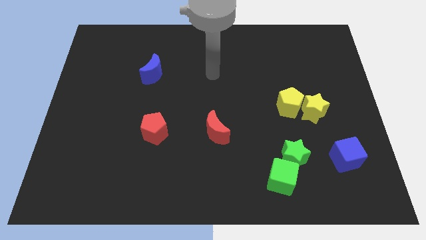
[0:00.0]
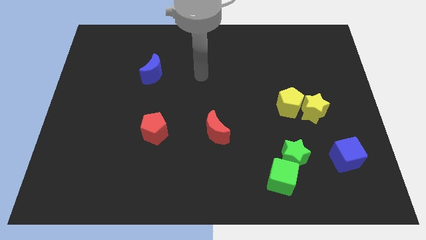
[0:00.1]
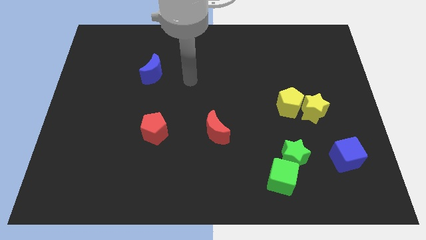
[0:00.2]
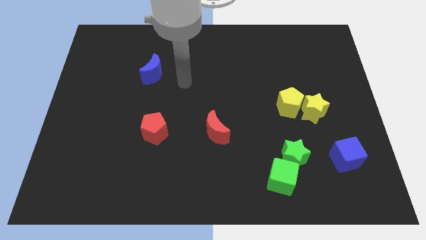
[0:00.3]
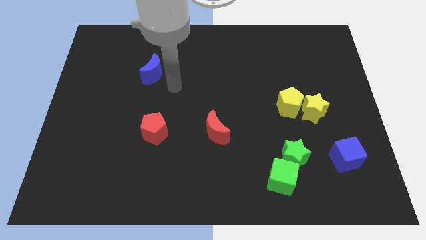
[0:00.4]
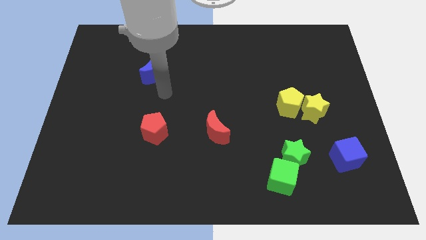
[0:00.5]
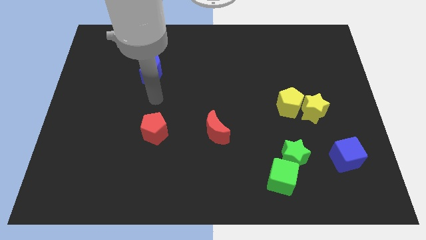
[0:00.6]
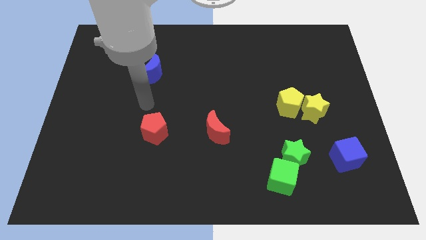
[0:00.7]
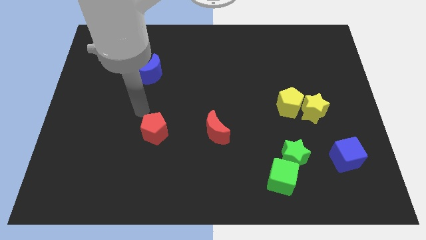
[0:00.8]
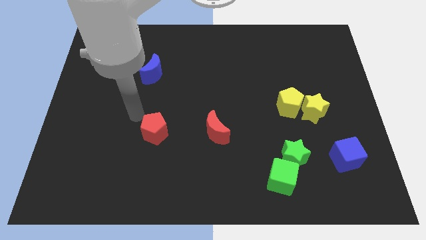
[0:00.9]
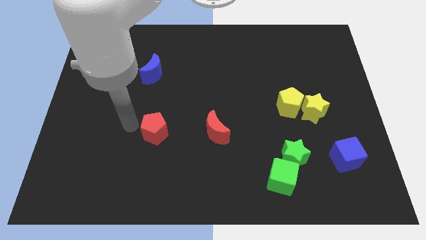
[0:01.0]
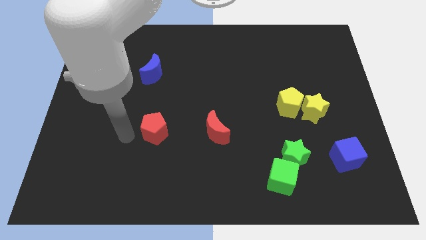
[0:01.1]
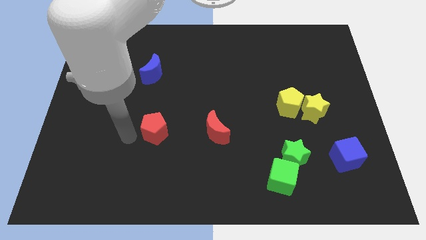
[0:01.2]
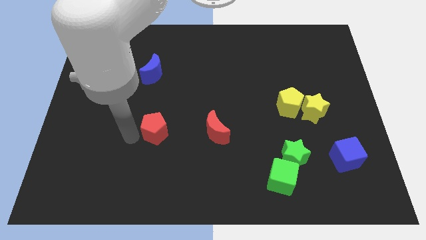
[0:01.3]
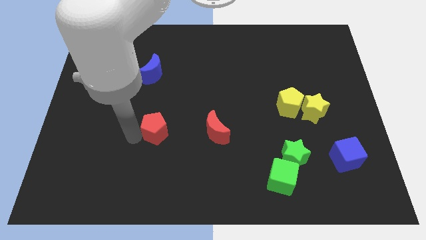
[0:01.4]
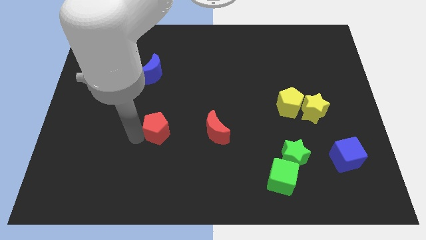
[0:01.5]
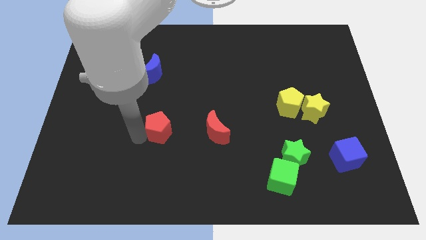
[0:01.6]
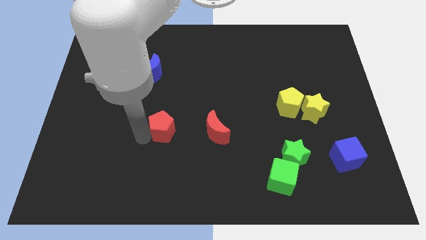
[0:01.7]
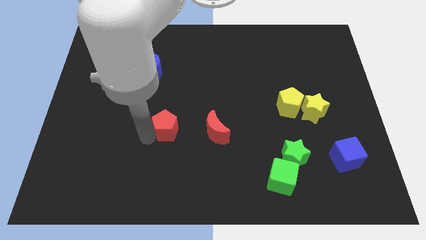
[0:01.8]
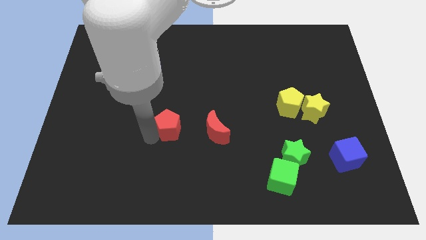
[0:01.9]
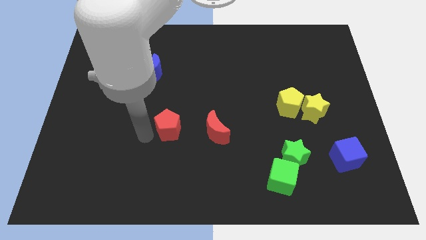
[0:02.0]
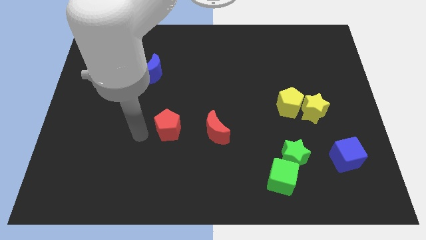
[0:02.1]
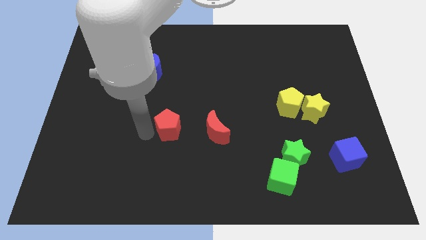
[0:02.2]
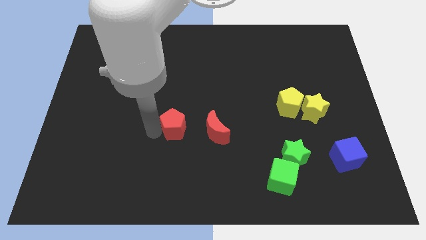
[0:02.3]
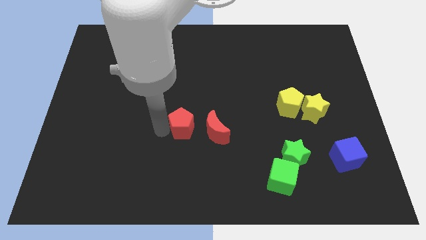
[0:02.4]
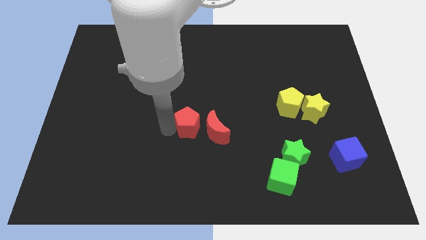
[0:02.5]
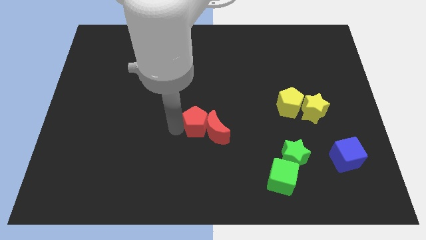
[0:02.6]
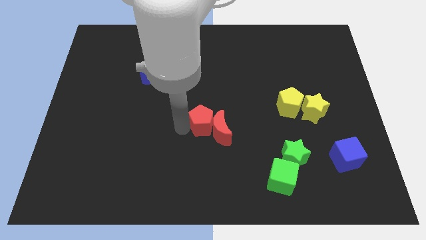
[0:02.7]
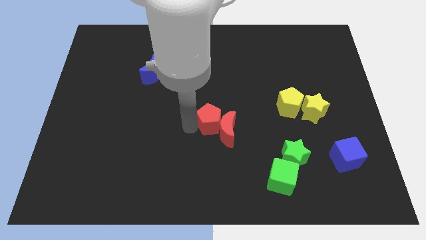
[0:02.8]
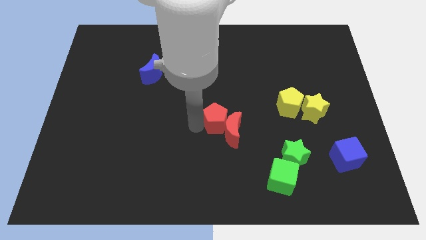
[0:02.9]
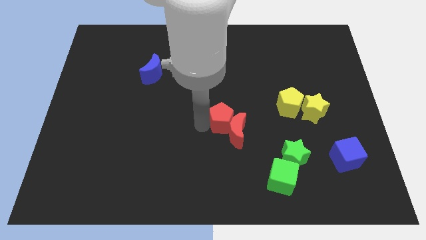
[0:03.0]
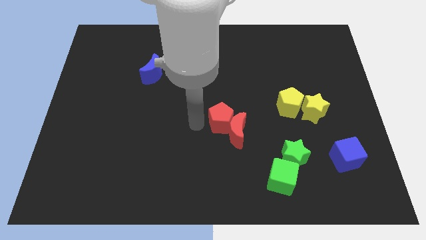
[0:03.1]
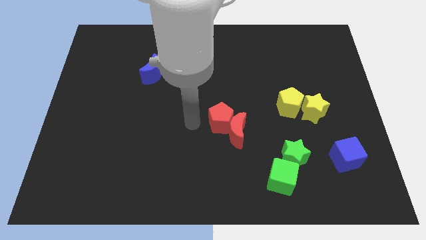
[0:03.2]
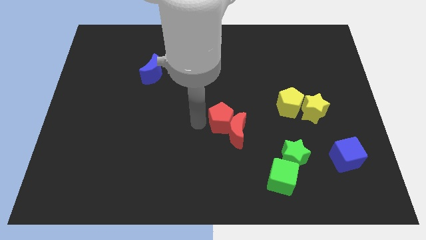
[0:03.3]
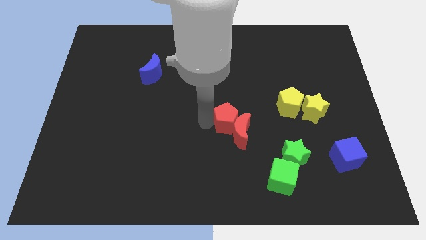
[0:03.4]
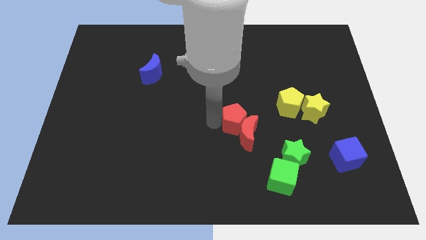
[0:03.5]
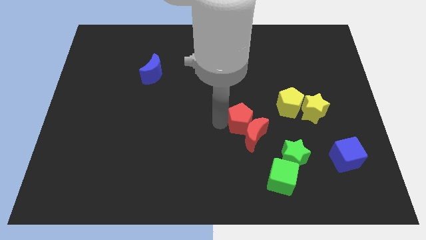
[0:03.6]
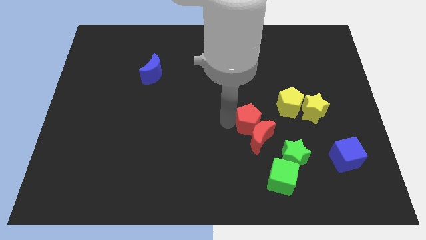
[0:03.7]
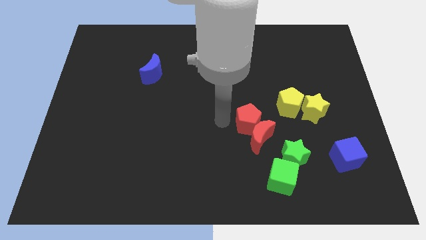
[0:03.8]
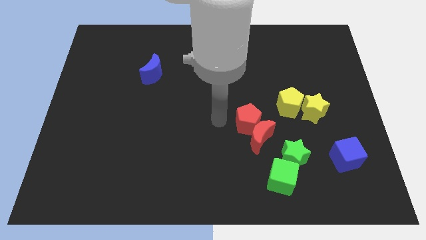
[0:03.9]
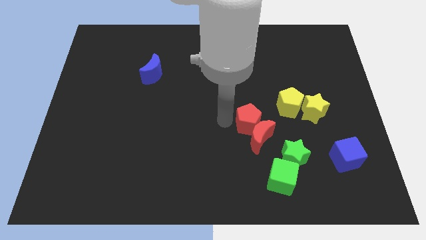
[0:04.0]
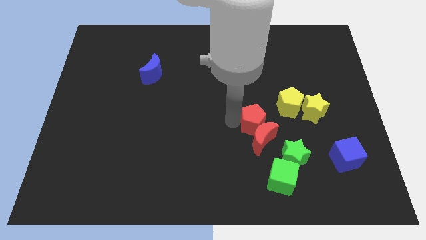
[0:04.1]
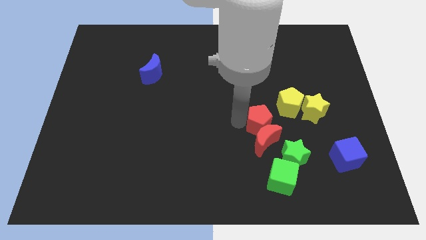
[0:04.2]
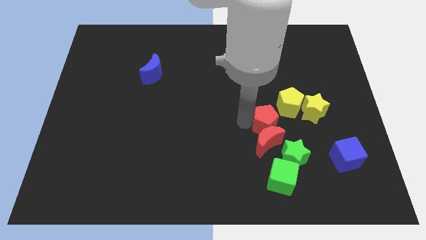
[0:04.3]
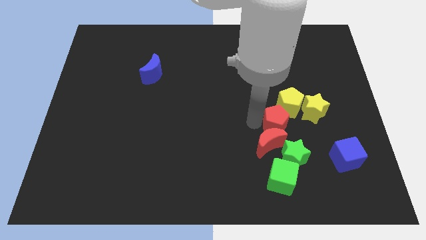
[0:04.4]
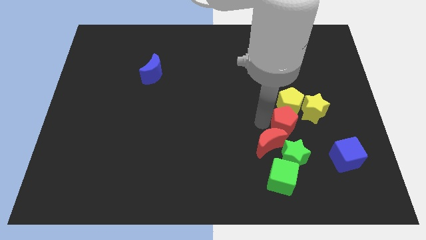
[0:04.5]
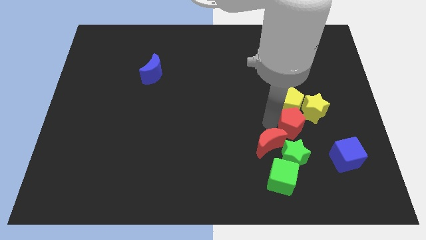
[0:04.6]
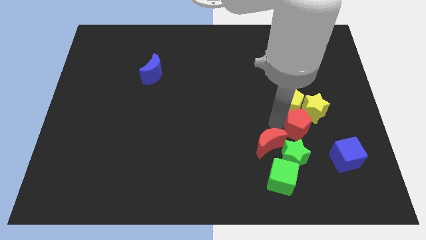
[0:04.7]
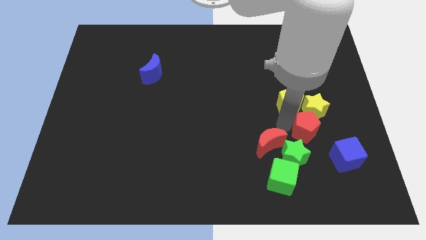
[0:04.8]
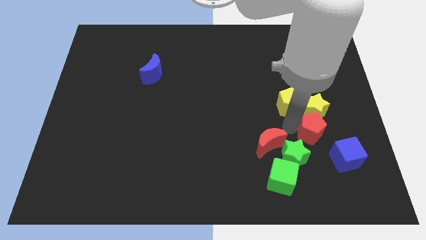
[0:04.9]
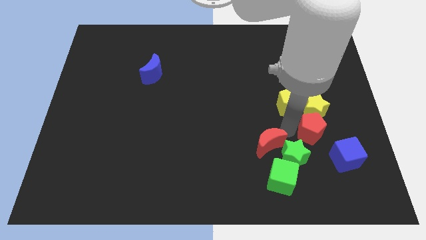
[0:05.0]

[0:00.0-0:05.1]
move the red pentagon to the bottom right side of the yellow star

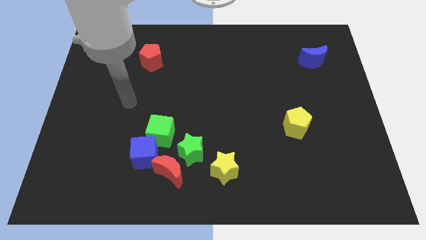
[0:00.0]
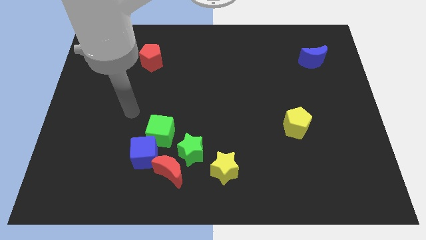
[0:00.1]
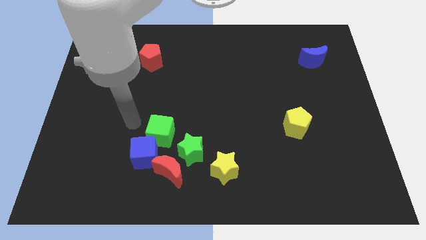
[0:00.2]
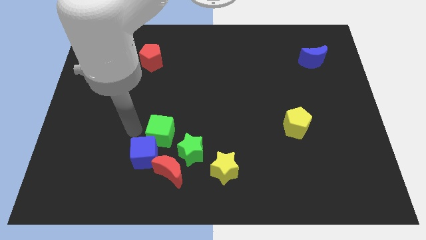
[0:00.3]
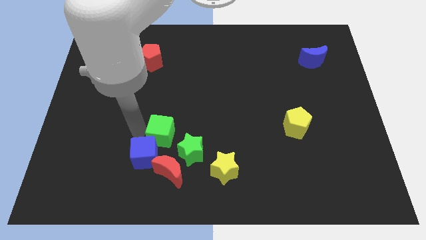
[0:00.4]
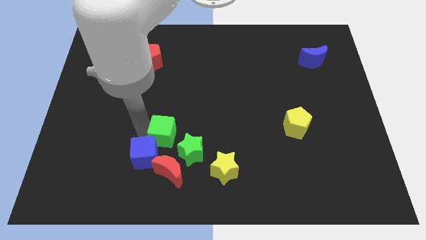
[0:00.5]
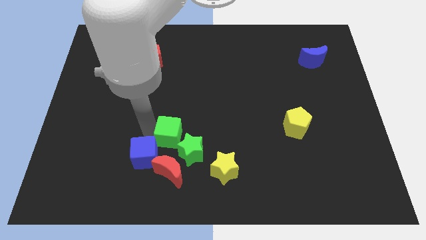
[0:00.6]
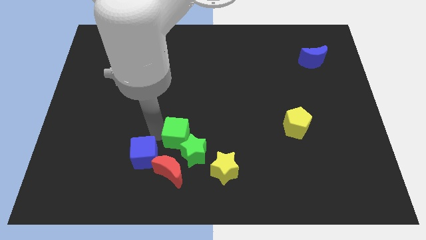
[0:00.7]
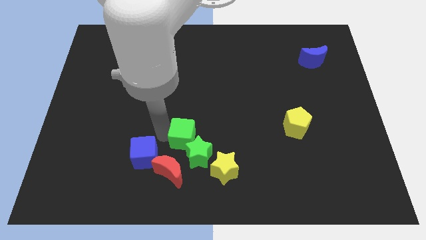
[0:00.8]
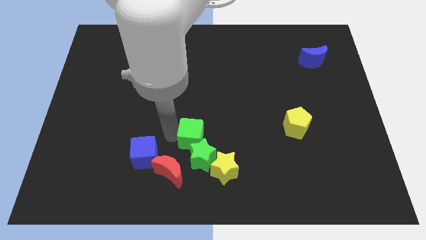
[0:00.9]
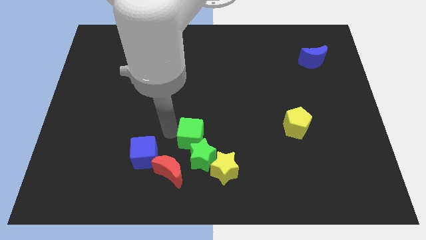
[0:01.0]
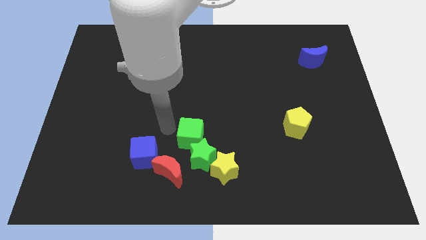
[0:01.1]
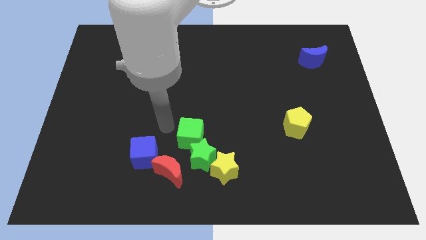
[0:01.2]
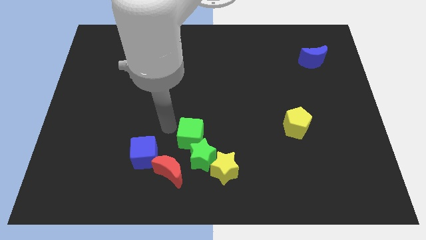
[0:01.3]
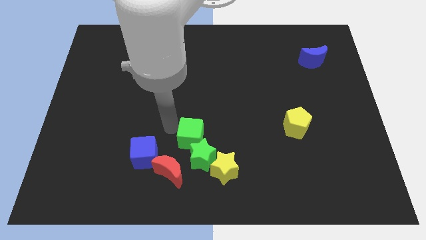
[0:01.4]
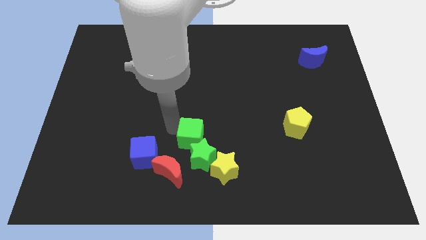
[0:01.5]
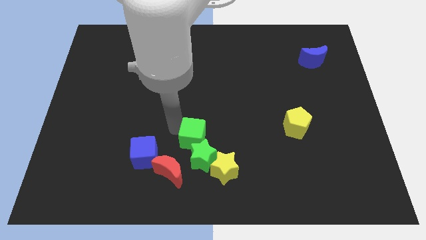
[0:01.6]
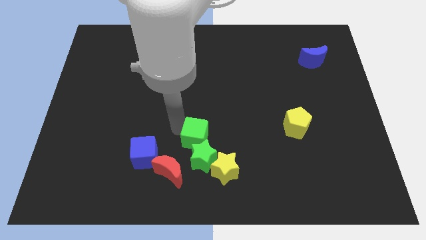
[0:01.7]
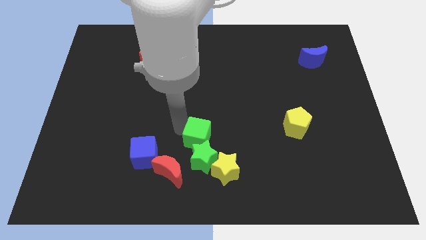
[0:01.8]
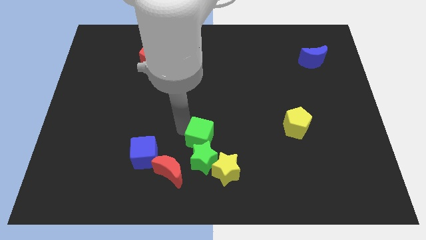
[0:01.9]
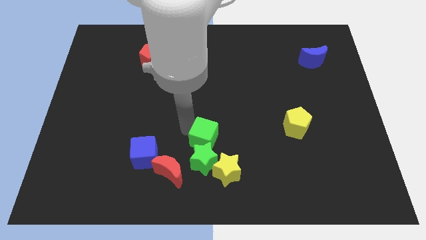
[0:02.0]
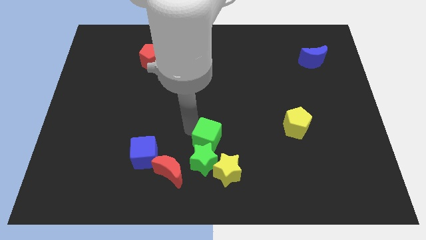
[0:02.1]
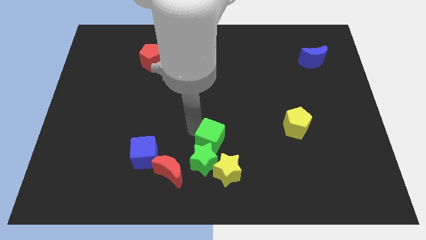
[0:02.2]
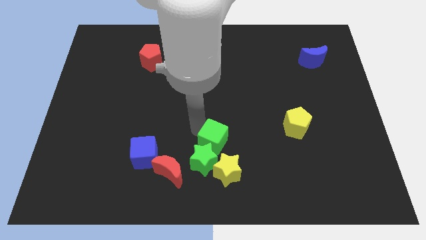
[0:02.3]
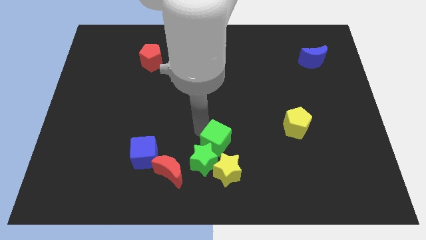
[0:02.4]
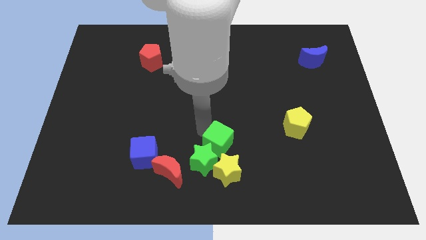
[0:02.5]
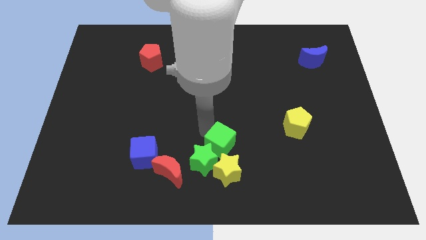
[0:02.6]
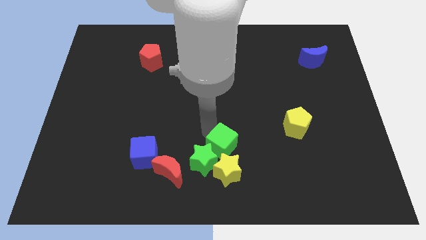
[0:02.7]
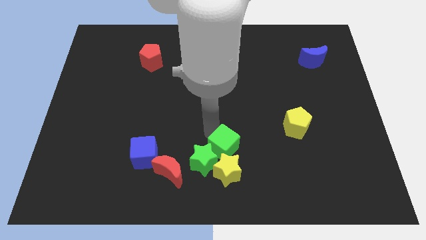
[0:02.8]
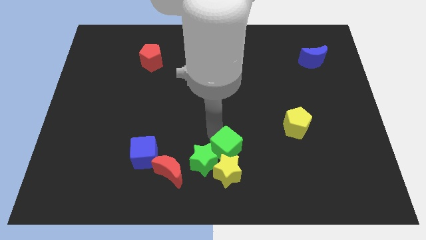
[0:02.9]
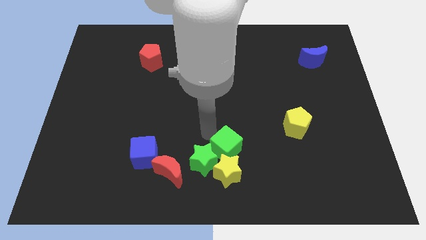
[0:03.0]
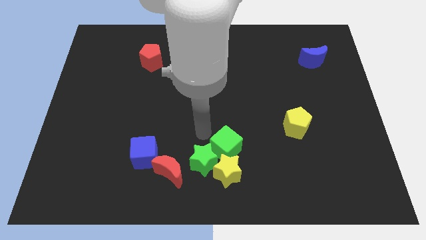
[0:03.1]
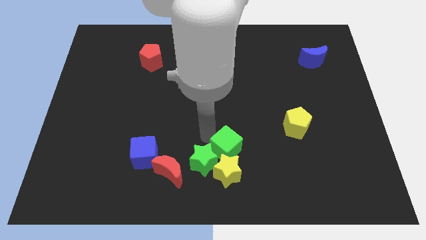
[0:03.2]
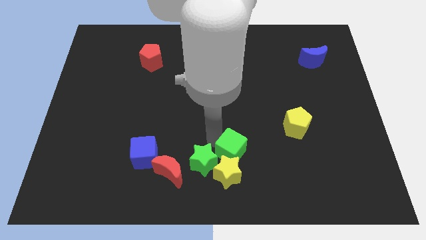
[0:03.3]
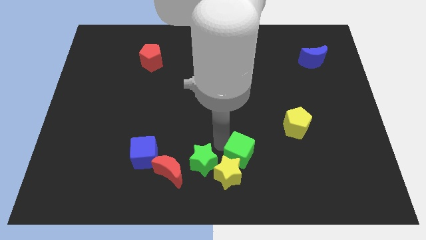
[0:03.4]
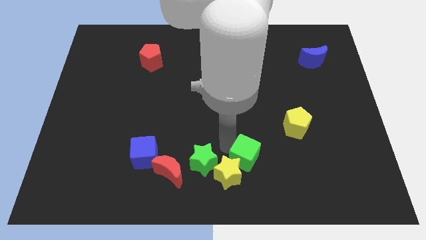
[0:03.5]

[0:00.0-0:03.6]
put the green cube to the right of the yellow star
